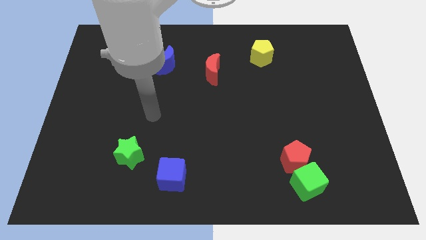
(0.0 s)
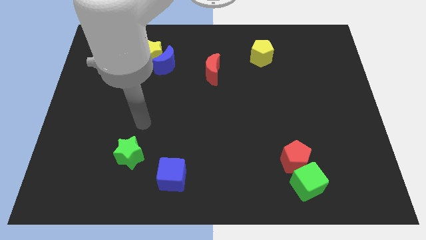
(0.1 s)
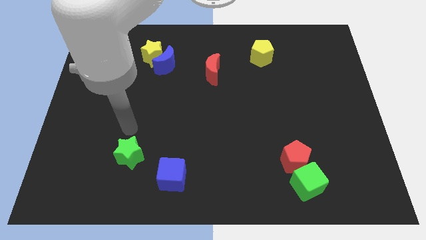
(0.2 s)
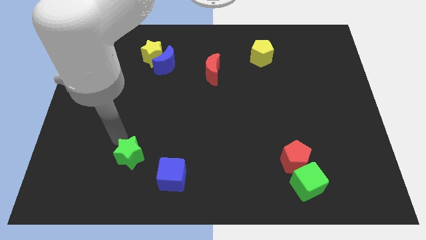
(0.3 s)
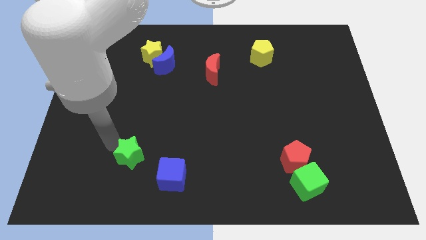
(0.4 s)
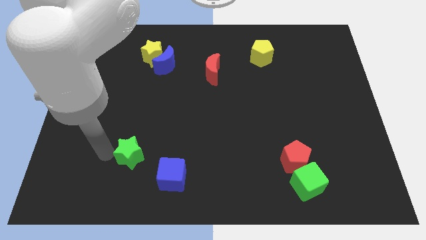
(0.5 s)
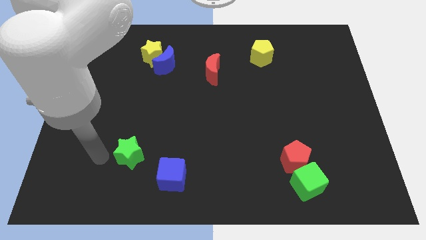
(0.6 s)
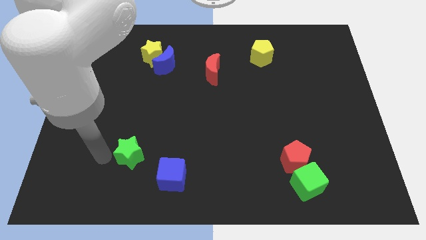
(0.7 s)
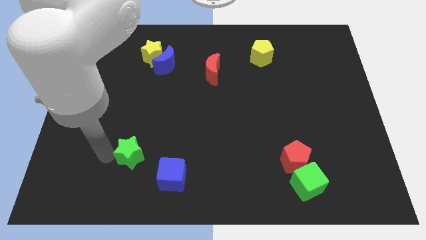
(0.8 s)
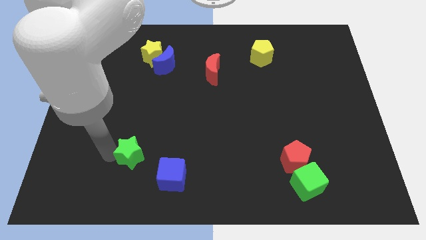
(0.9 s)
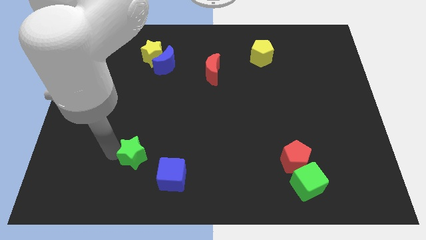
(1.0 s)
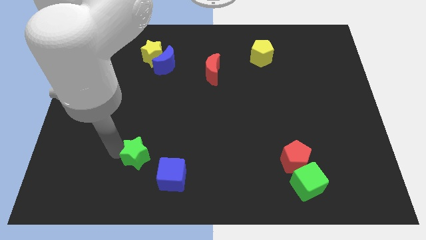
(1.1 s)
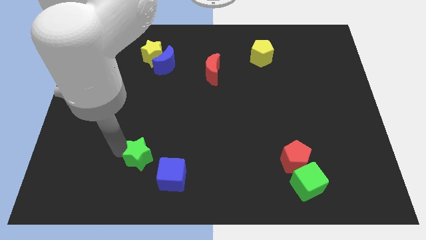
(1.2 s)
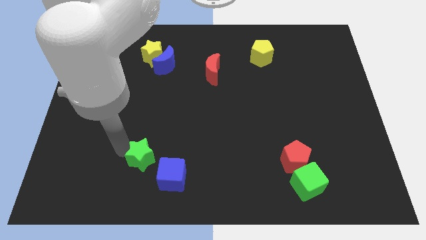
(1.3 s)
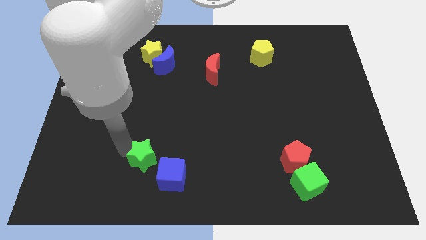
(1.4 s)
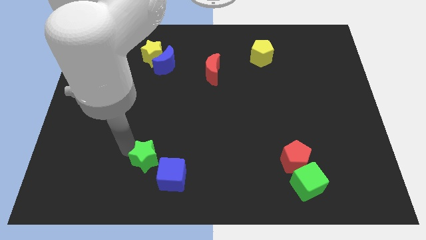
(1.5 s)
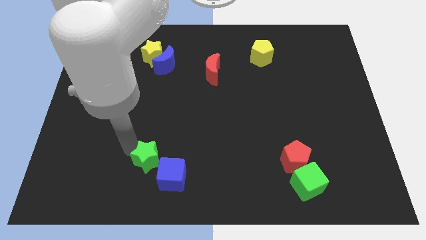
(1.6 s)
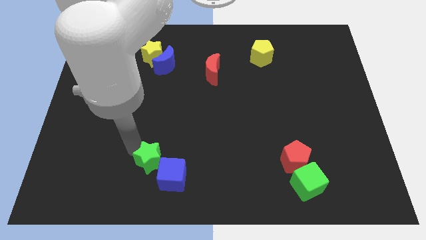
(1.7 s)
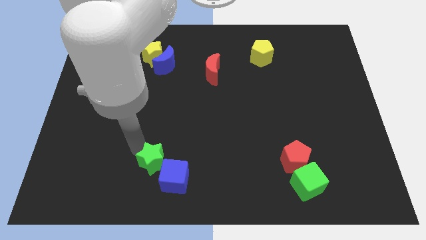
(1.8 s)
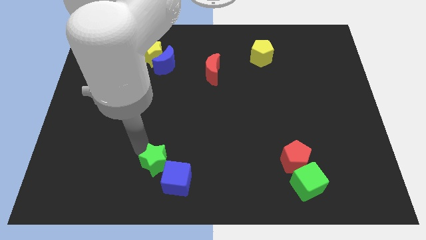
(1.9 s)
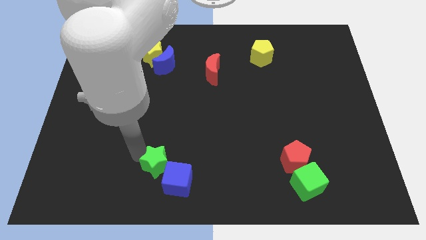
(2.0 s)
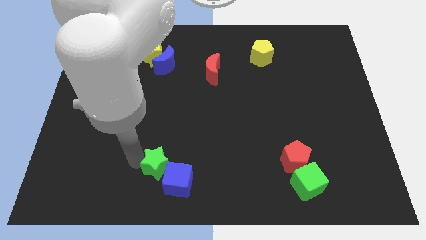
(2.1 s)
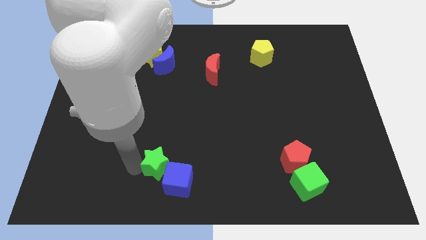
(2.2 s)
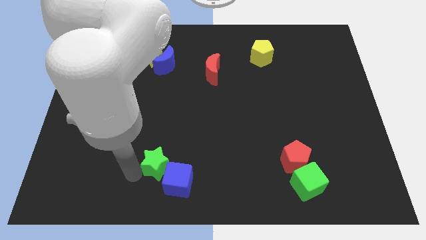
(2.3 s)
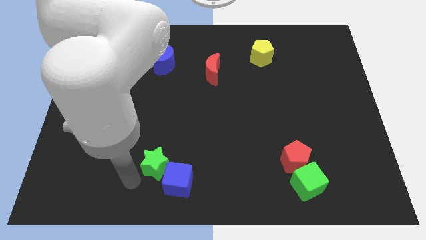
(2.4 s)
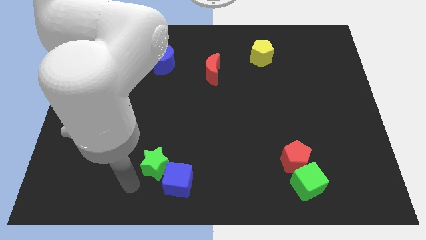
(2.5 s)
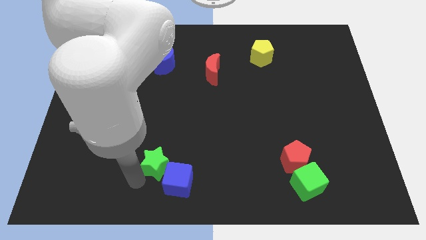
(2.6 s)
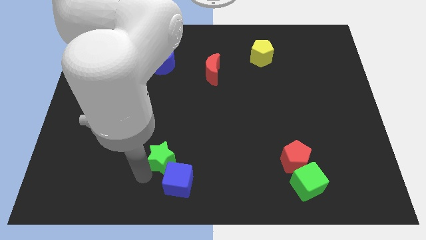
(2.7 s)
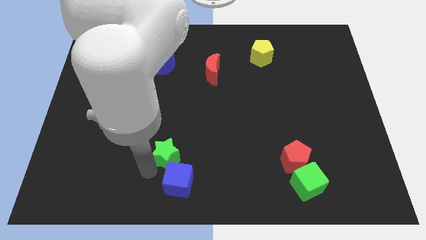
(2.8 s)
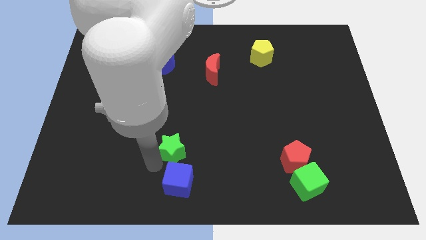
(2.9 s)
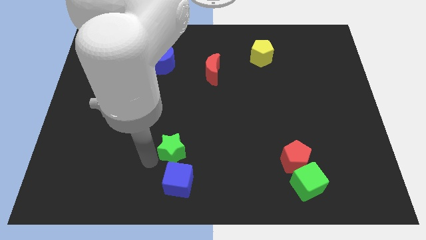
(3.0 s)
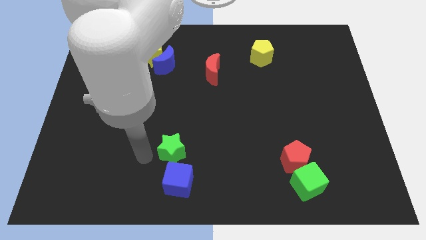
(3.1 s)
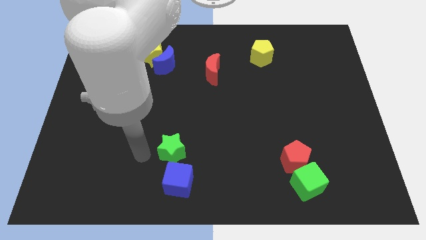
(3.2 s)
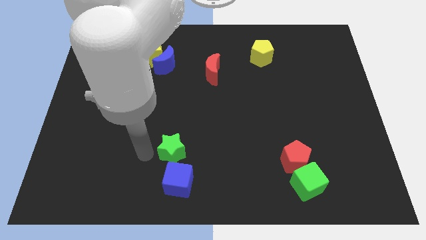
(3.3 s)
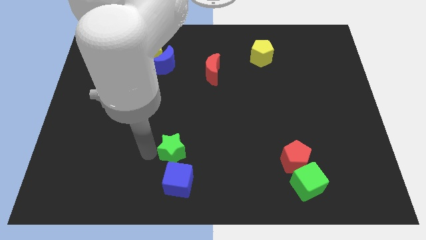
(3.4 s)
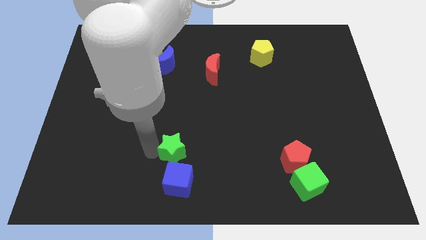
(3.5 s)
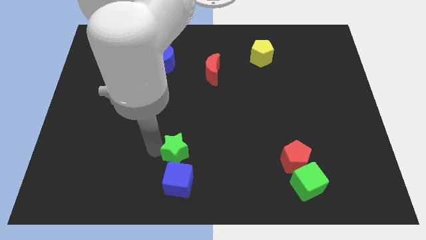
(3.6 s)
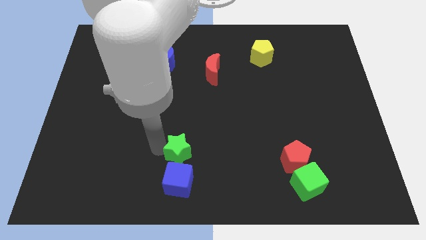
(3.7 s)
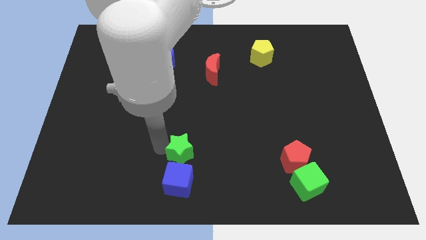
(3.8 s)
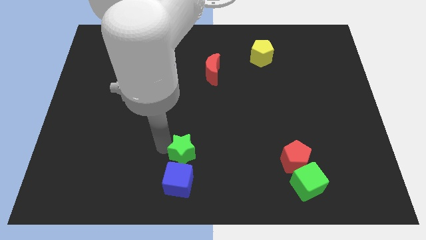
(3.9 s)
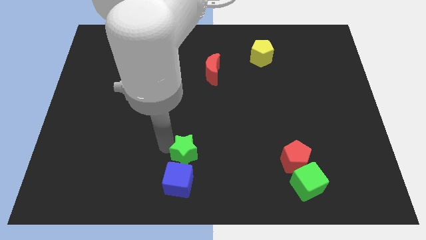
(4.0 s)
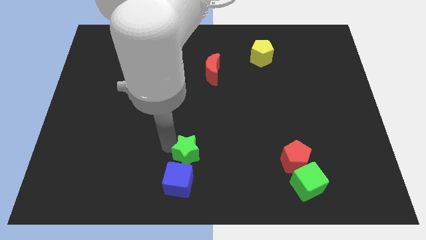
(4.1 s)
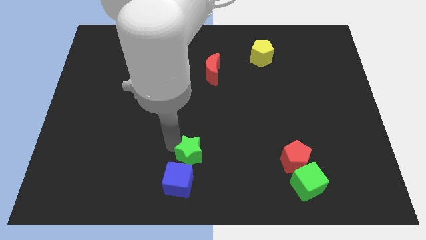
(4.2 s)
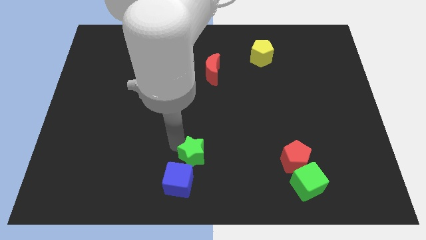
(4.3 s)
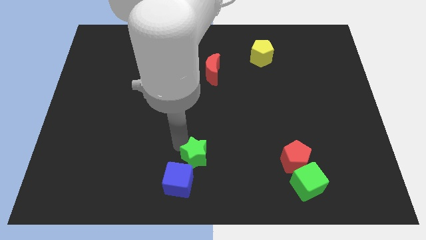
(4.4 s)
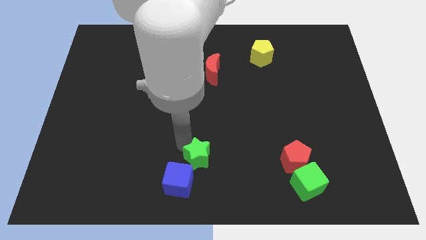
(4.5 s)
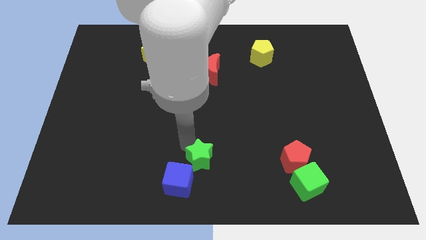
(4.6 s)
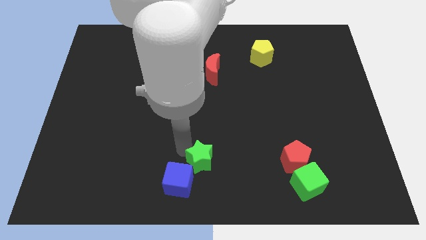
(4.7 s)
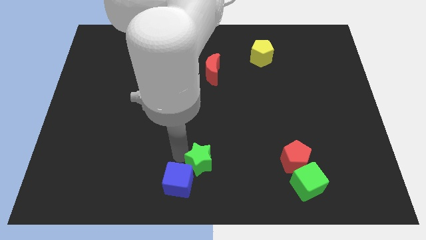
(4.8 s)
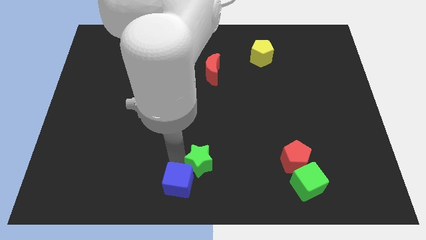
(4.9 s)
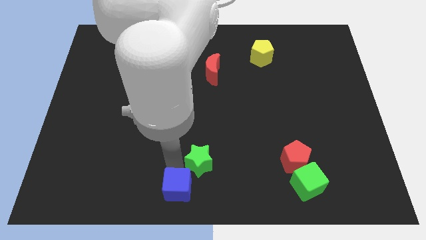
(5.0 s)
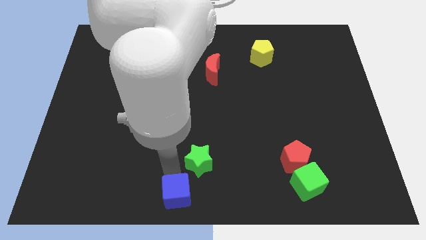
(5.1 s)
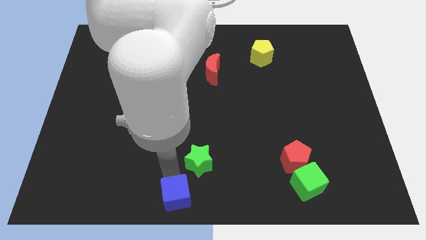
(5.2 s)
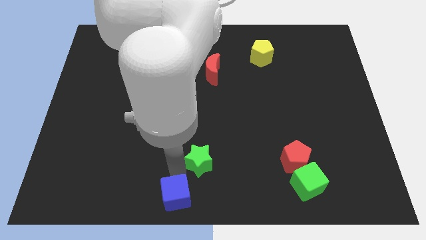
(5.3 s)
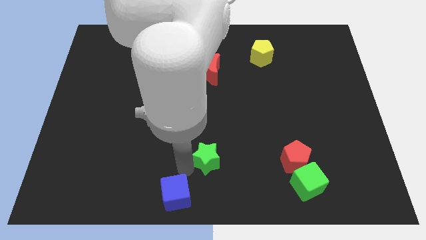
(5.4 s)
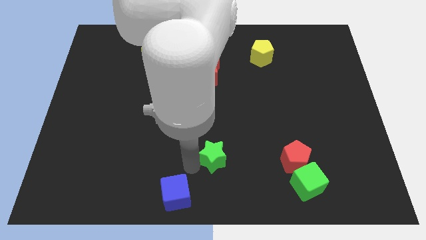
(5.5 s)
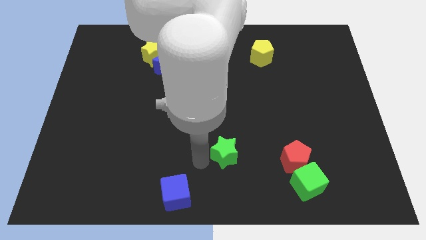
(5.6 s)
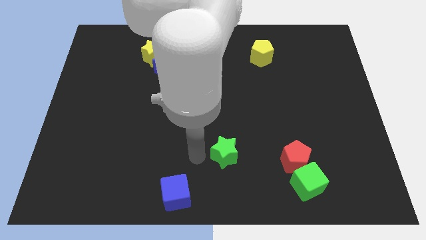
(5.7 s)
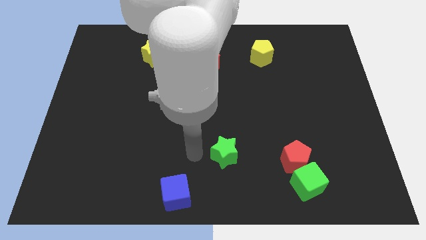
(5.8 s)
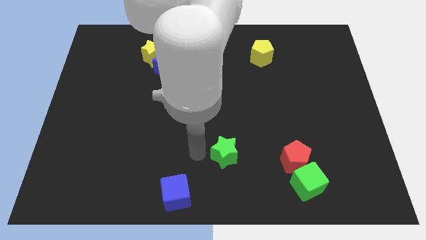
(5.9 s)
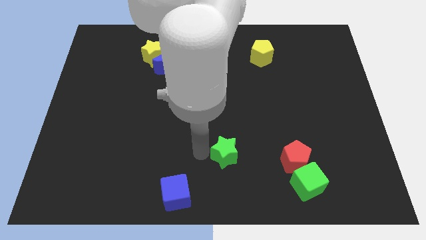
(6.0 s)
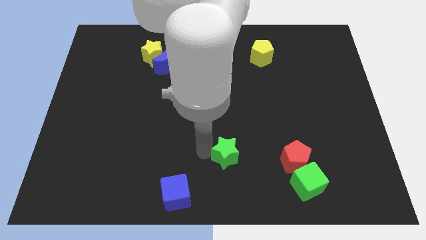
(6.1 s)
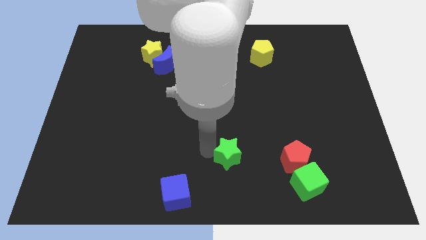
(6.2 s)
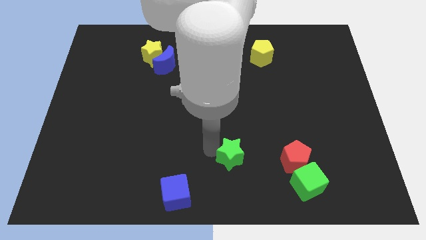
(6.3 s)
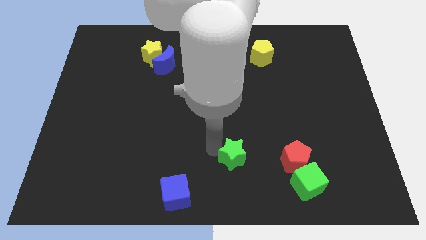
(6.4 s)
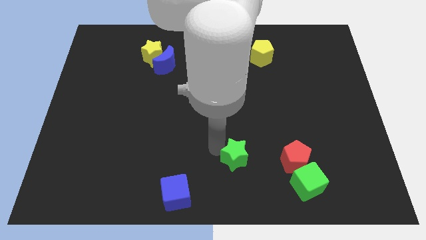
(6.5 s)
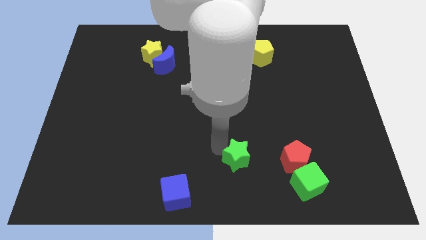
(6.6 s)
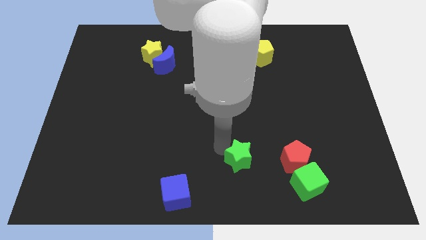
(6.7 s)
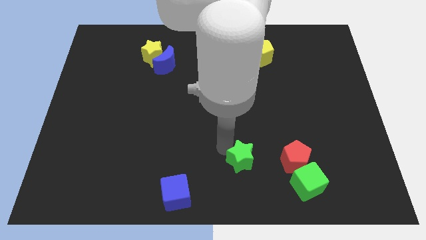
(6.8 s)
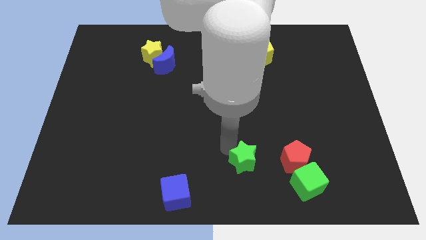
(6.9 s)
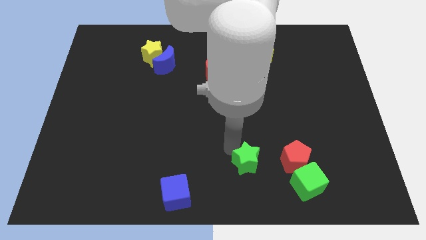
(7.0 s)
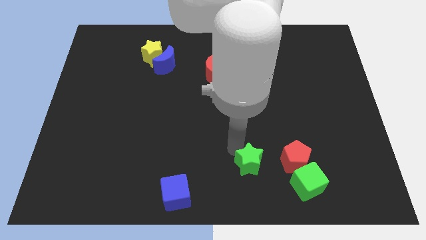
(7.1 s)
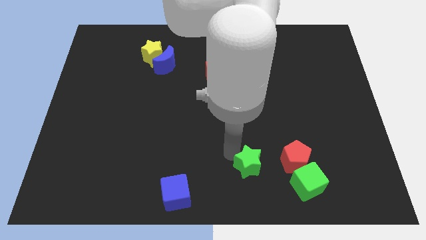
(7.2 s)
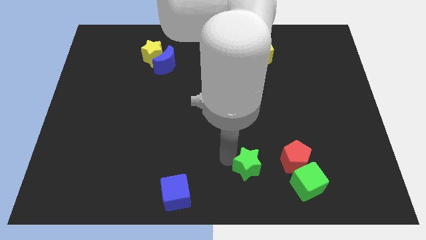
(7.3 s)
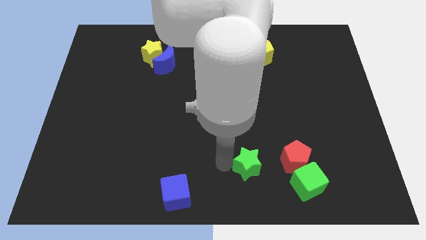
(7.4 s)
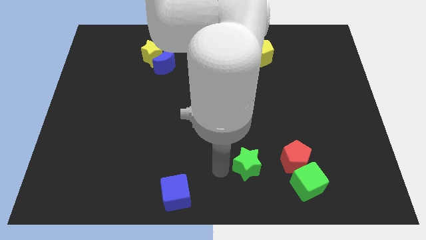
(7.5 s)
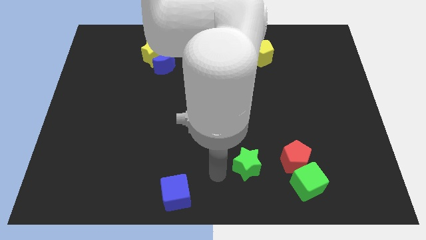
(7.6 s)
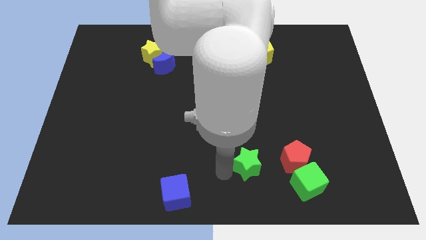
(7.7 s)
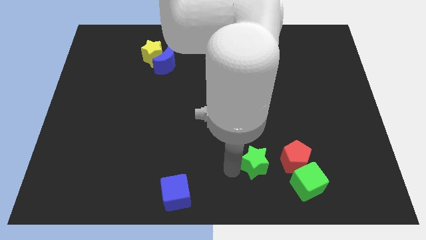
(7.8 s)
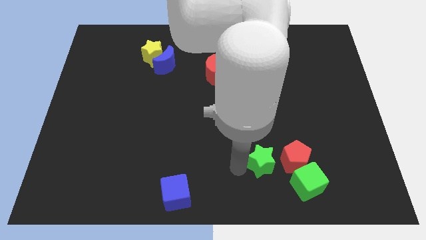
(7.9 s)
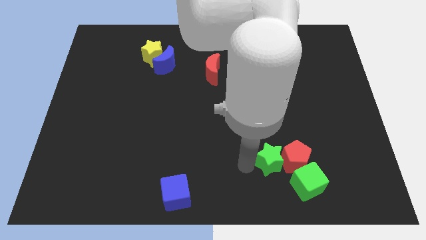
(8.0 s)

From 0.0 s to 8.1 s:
slide the green star next to the red pentagon
